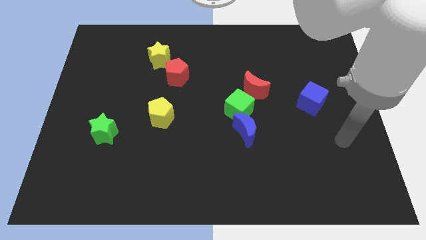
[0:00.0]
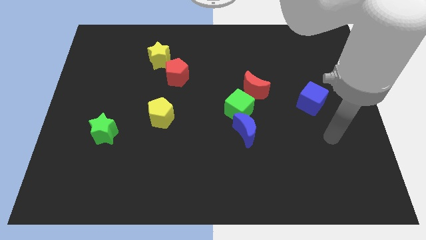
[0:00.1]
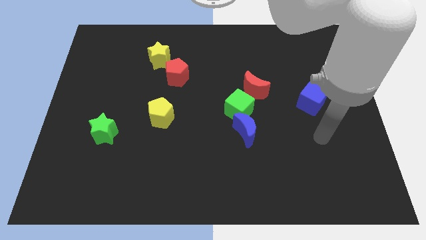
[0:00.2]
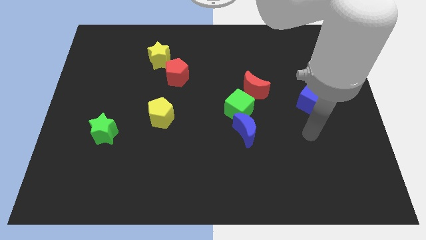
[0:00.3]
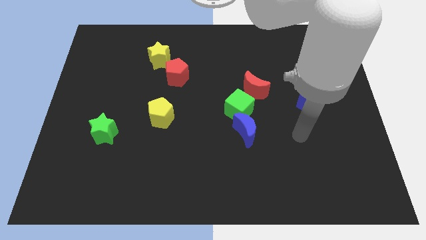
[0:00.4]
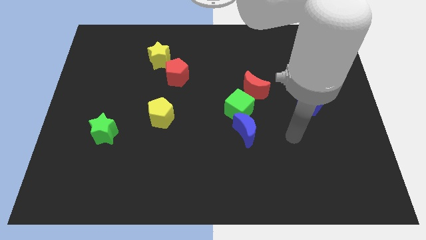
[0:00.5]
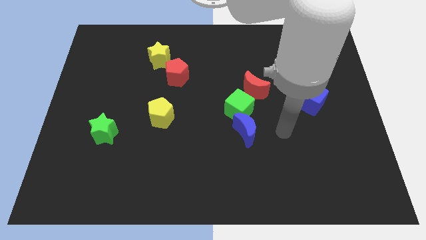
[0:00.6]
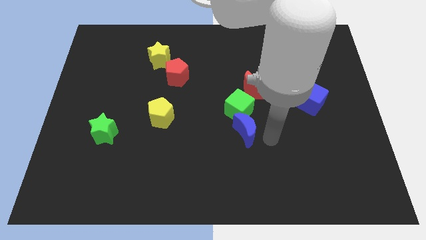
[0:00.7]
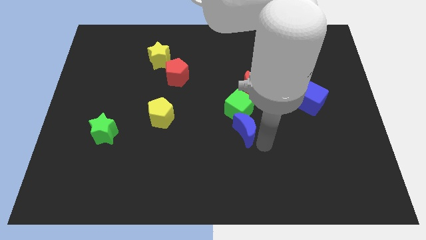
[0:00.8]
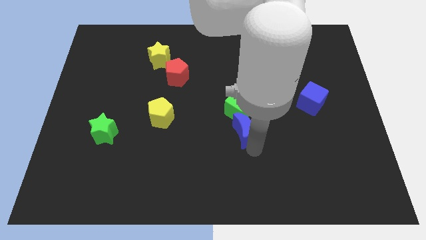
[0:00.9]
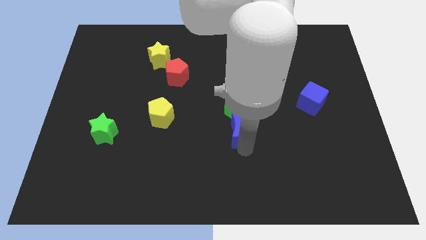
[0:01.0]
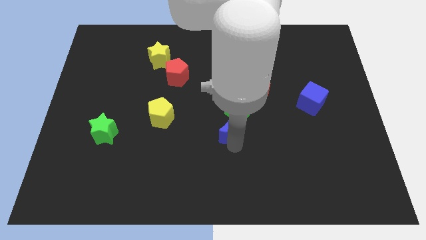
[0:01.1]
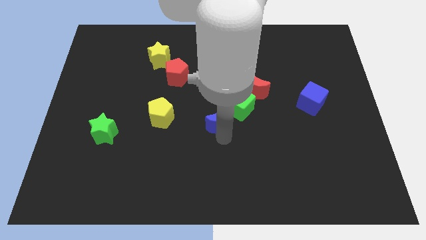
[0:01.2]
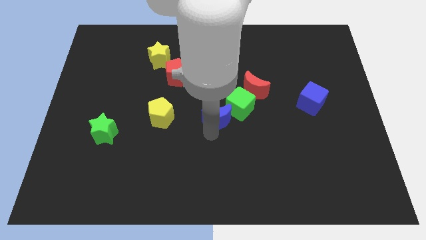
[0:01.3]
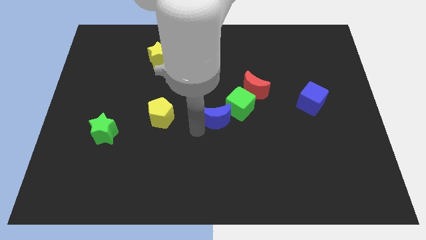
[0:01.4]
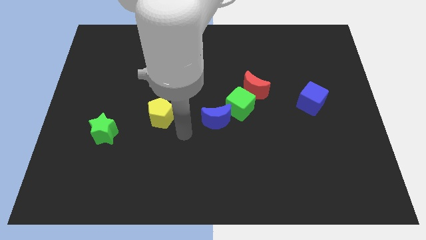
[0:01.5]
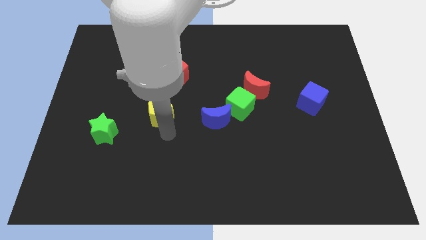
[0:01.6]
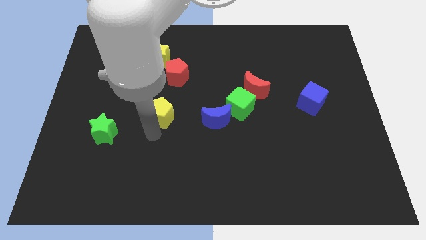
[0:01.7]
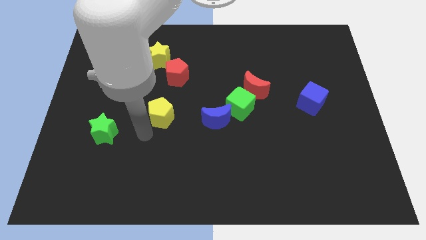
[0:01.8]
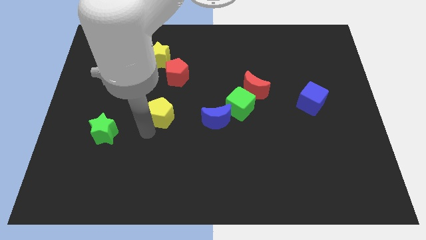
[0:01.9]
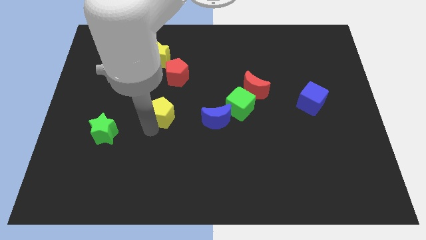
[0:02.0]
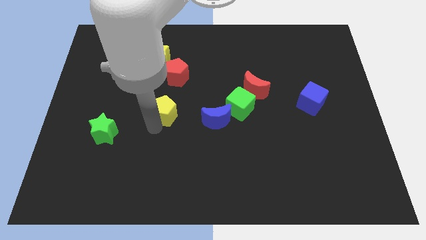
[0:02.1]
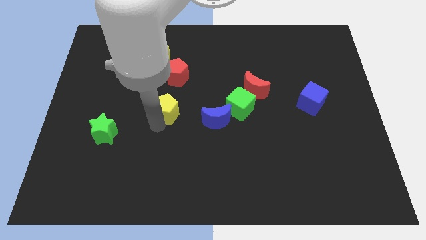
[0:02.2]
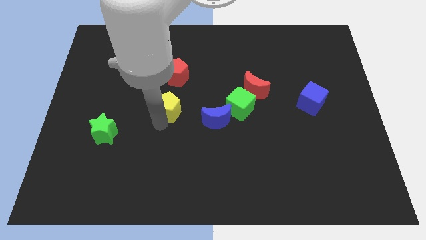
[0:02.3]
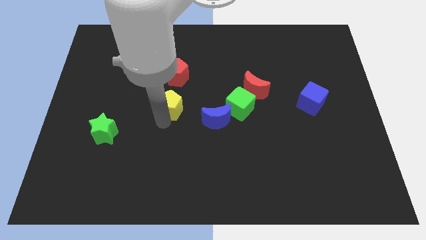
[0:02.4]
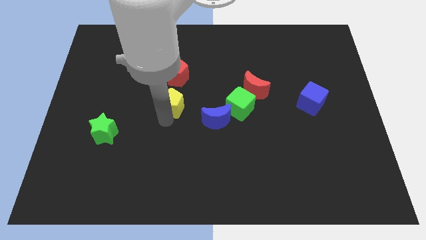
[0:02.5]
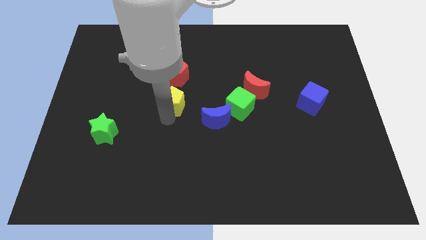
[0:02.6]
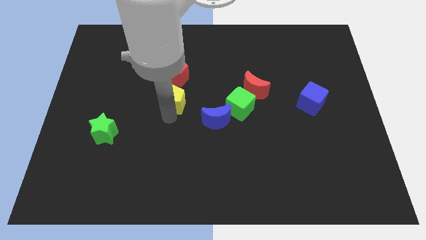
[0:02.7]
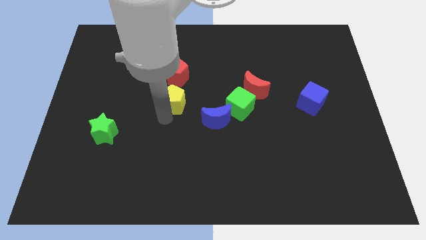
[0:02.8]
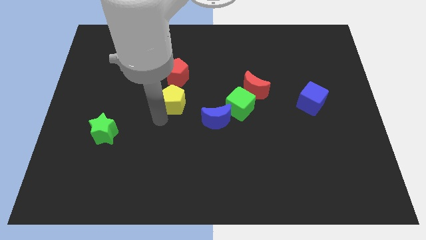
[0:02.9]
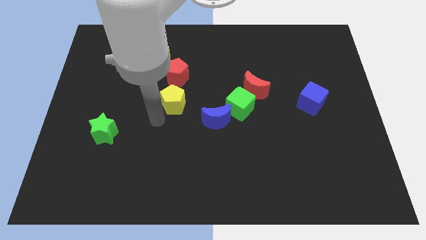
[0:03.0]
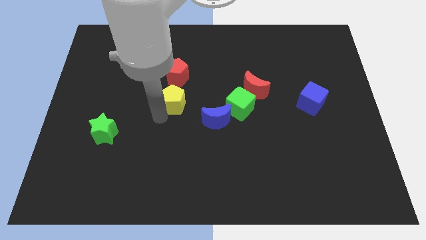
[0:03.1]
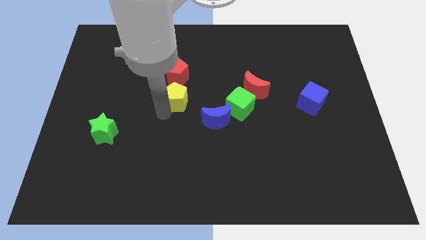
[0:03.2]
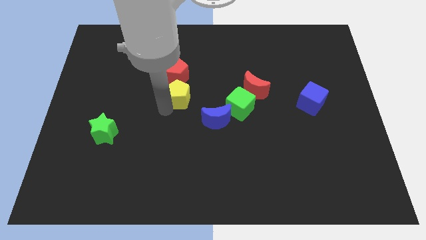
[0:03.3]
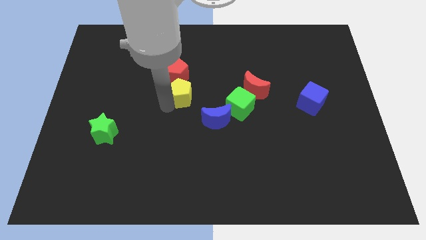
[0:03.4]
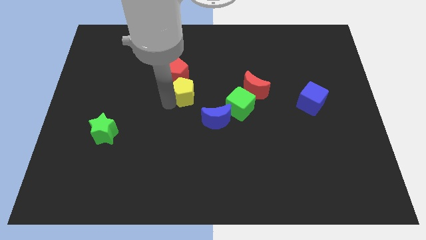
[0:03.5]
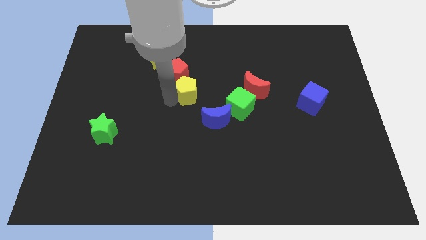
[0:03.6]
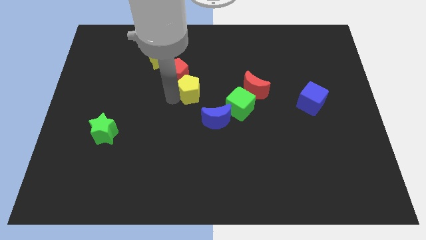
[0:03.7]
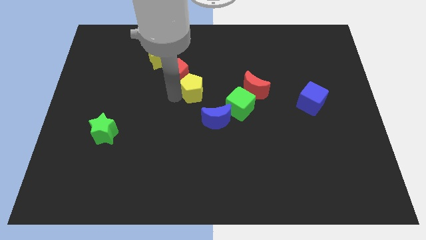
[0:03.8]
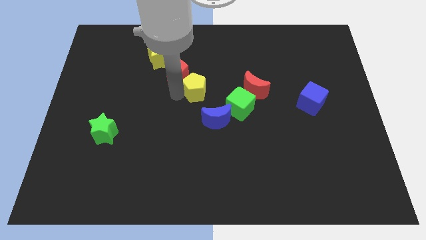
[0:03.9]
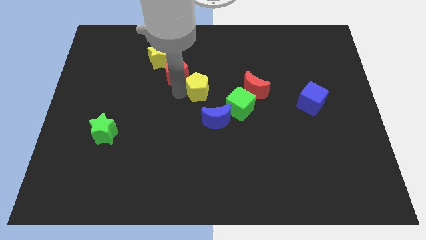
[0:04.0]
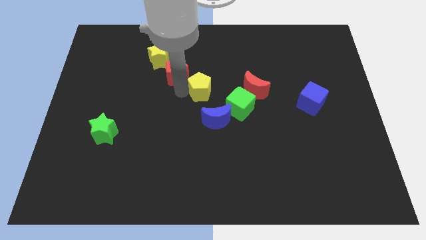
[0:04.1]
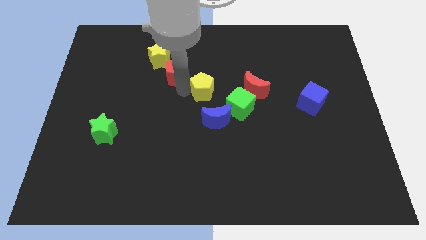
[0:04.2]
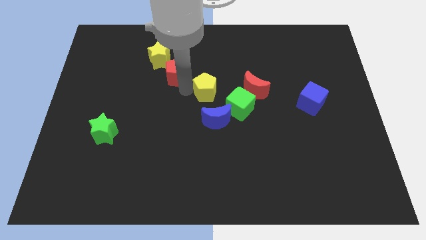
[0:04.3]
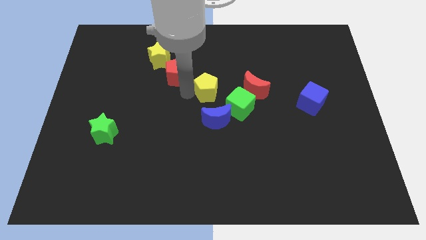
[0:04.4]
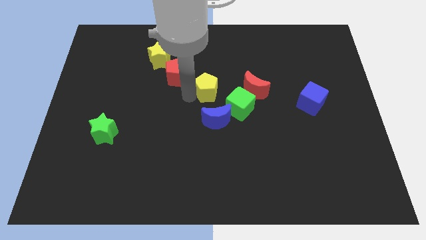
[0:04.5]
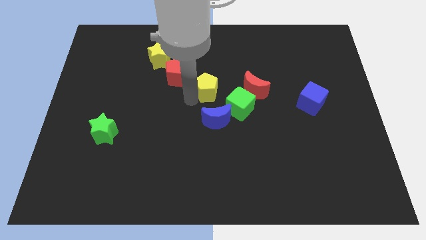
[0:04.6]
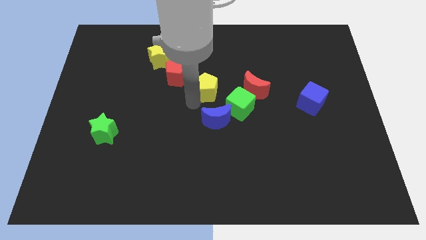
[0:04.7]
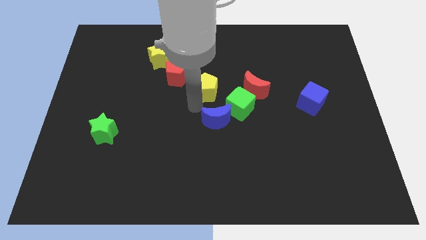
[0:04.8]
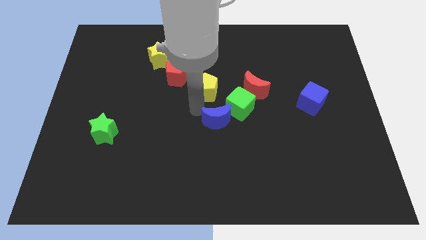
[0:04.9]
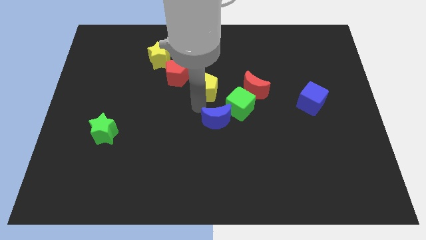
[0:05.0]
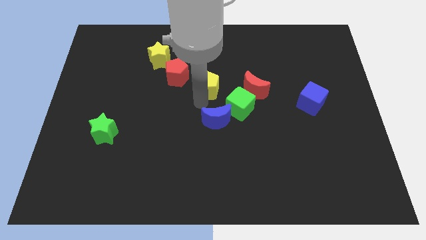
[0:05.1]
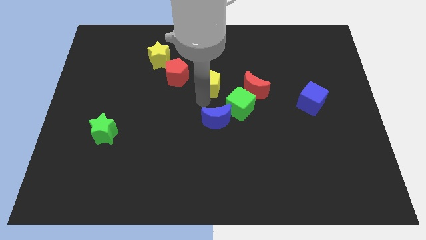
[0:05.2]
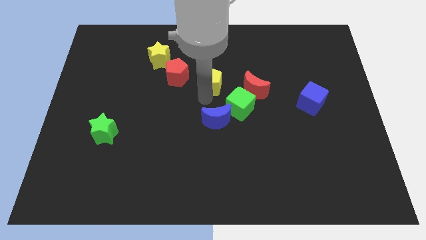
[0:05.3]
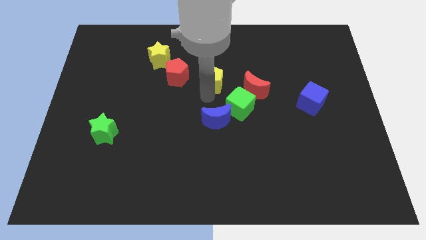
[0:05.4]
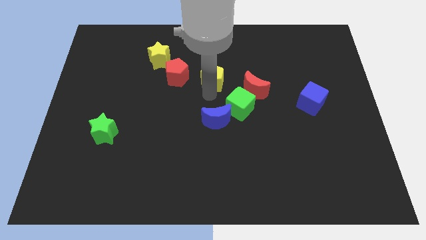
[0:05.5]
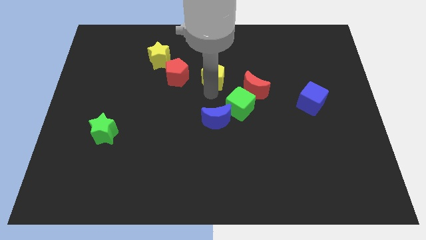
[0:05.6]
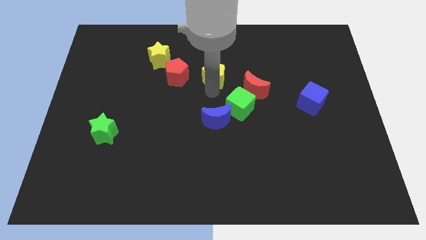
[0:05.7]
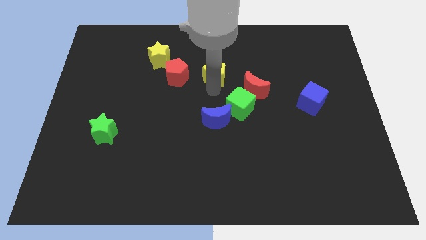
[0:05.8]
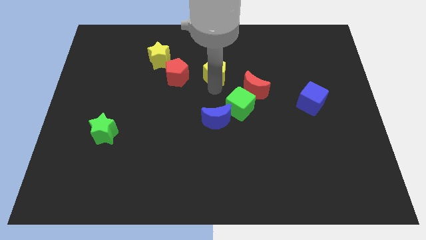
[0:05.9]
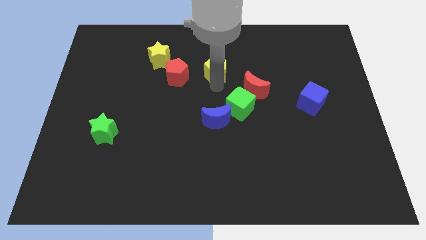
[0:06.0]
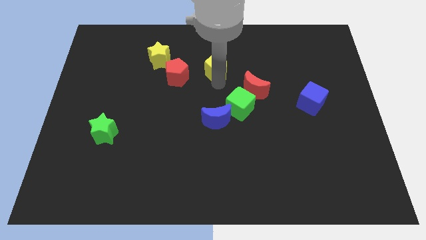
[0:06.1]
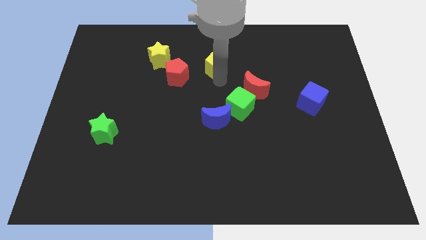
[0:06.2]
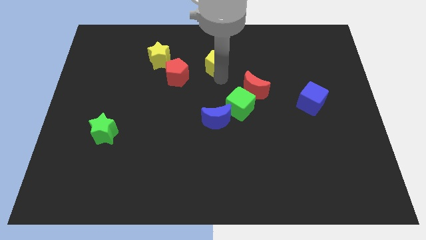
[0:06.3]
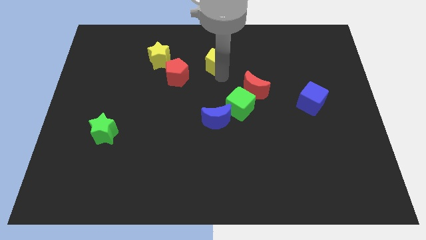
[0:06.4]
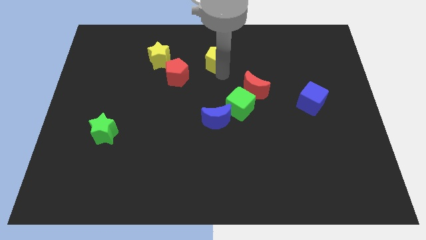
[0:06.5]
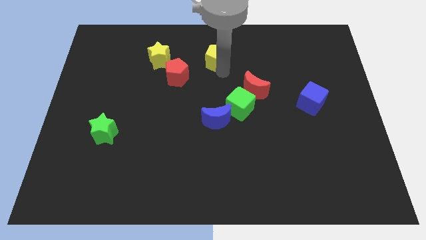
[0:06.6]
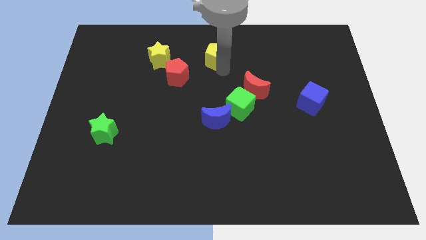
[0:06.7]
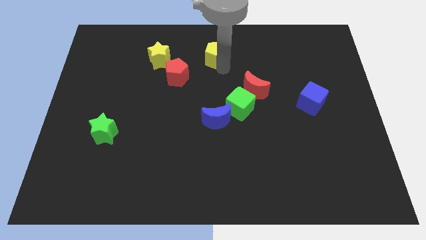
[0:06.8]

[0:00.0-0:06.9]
slide the yellow pentagon to the towards your base
